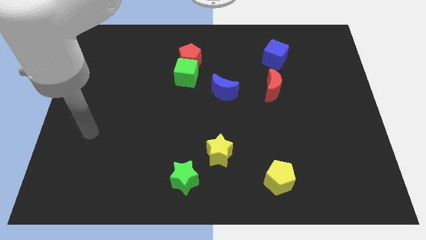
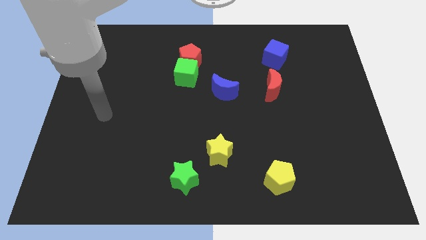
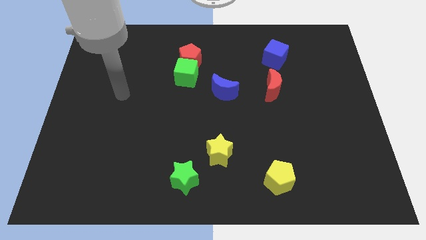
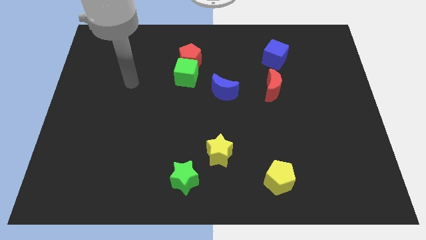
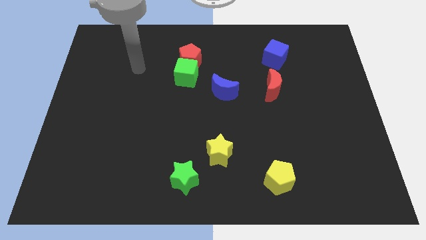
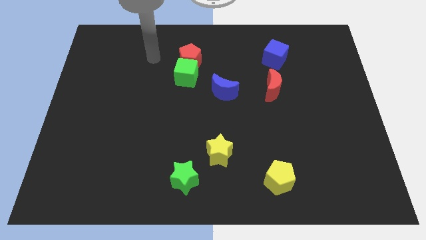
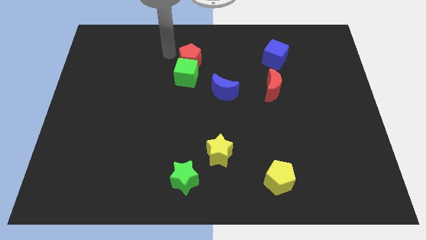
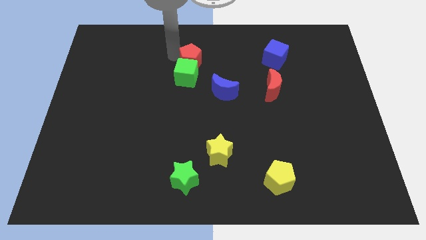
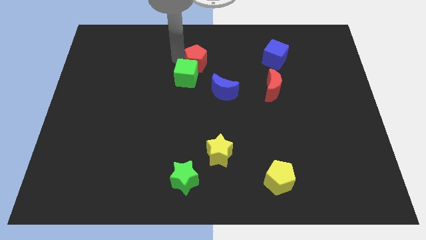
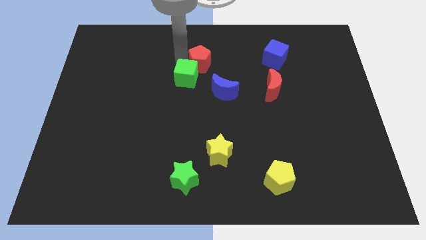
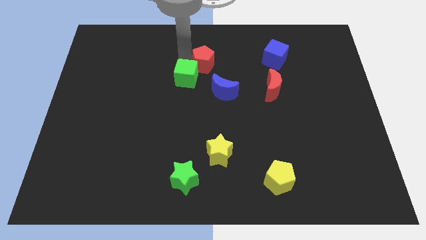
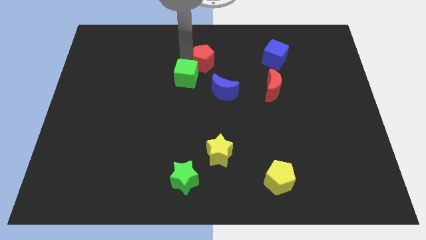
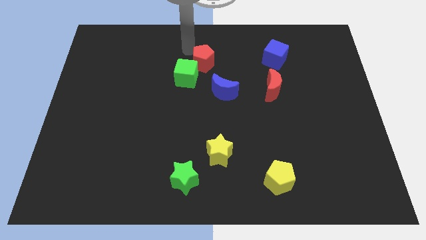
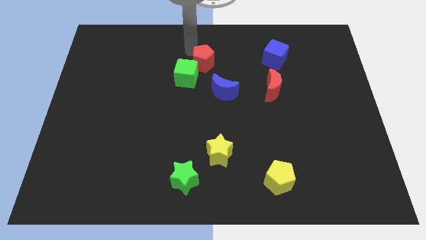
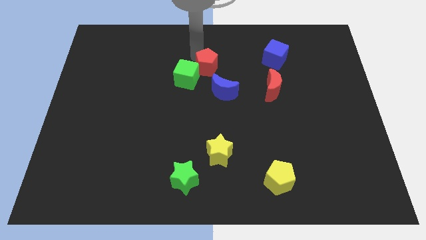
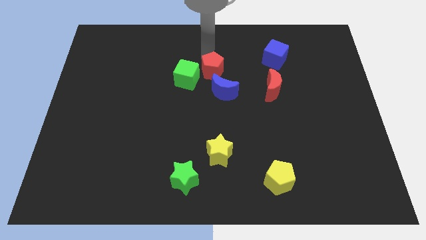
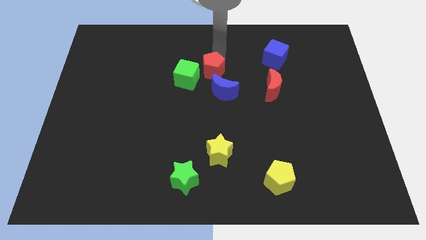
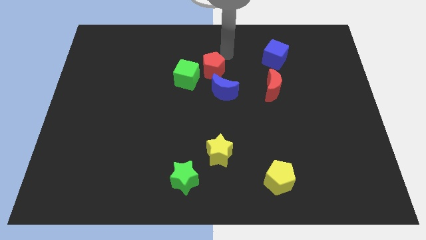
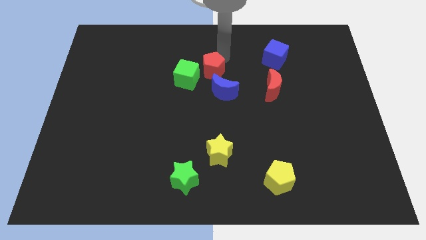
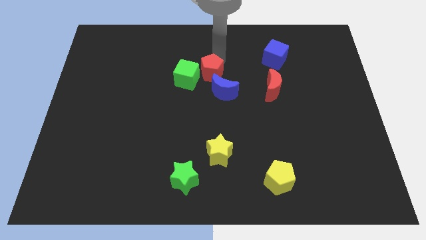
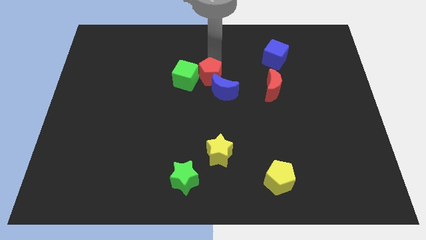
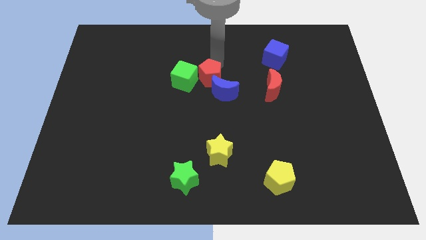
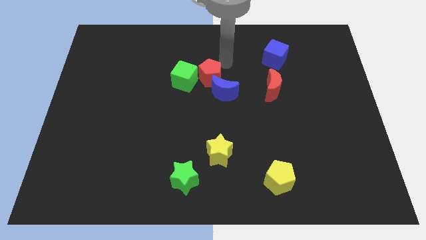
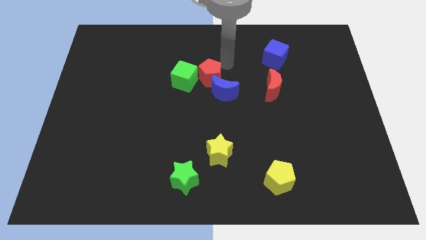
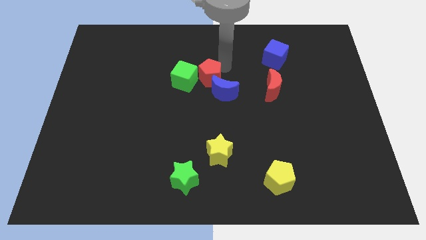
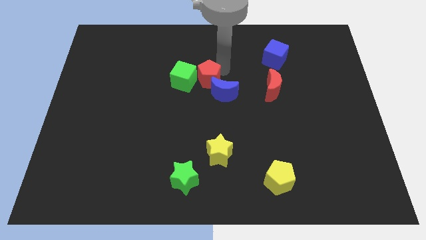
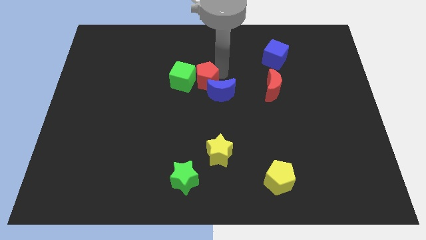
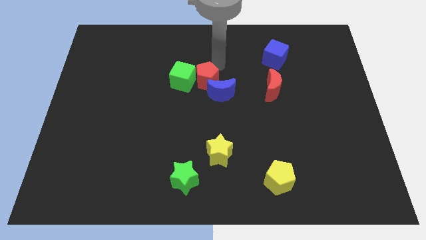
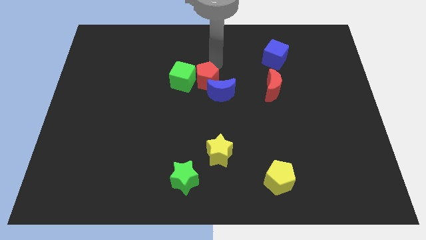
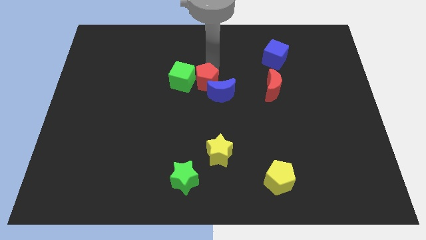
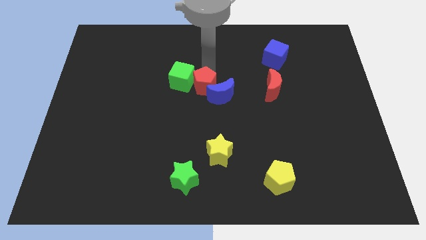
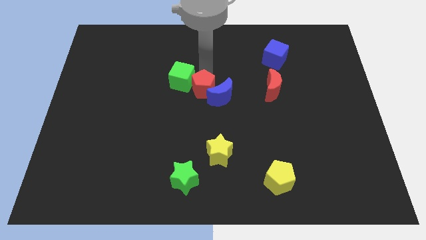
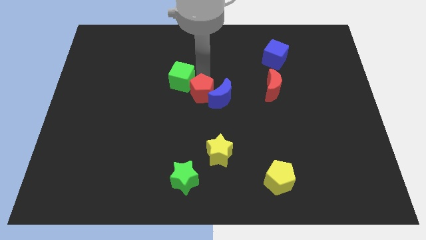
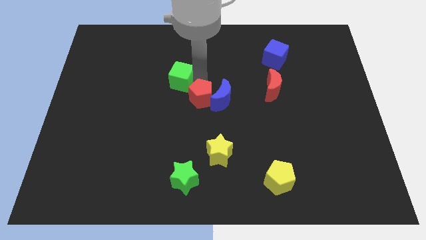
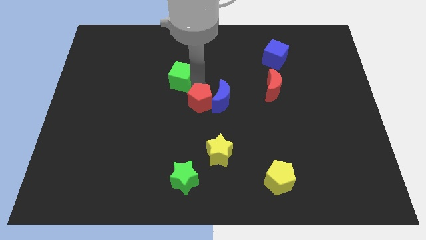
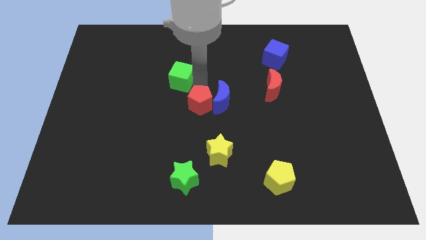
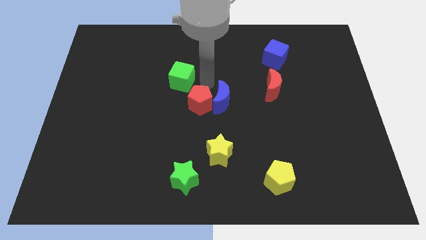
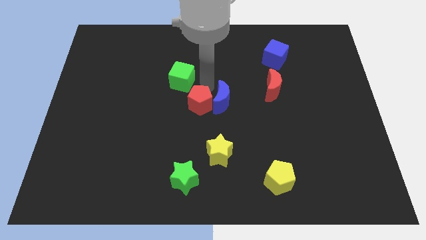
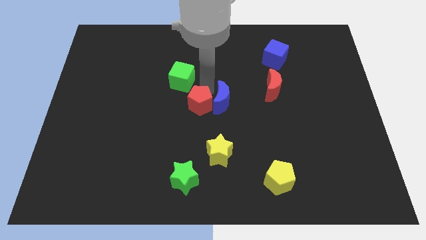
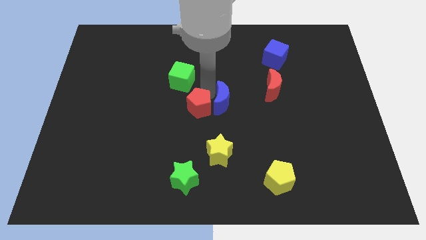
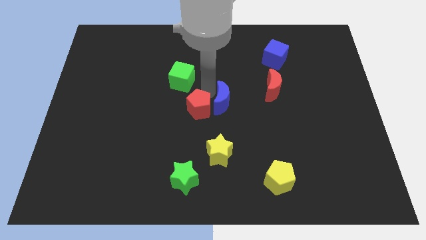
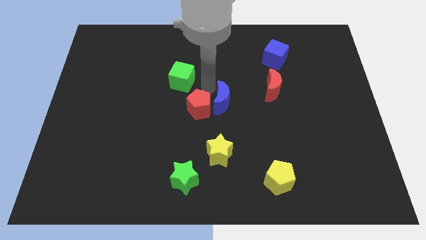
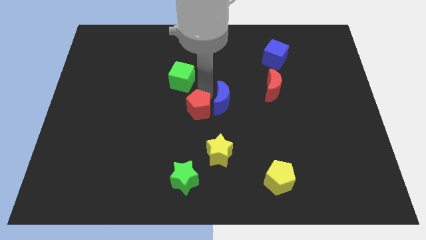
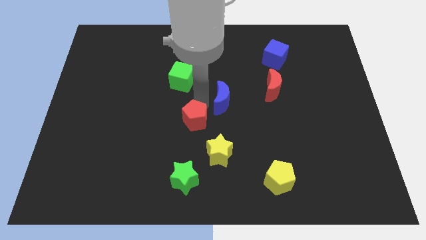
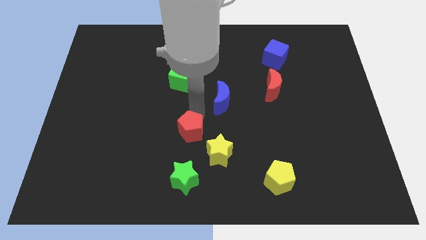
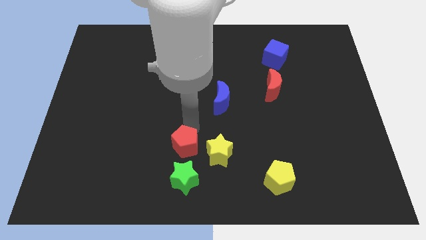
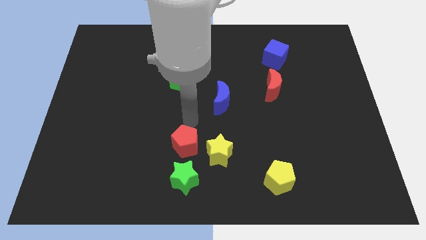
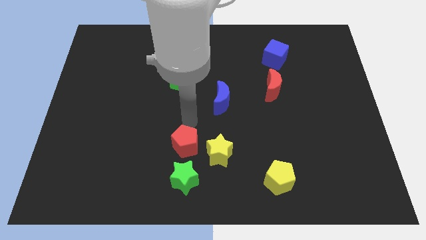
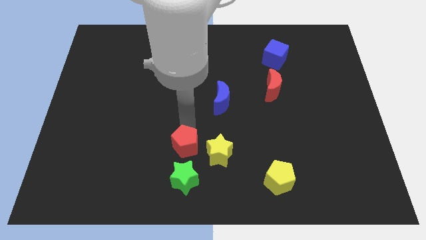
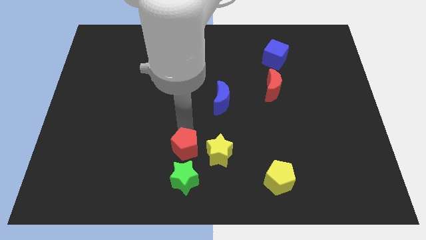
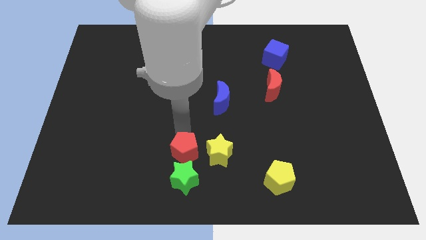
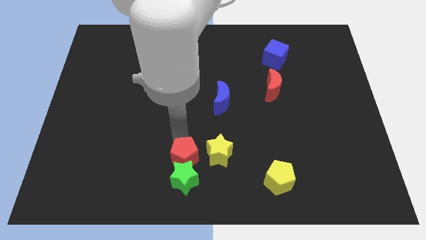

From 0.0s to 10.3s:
move the red pentagon towards the green star

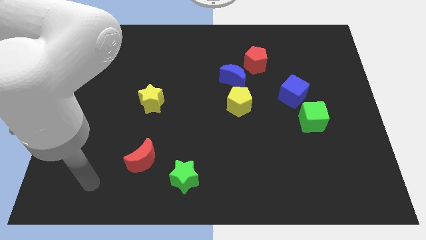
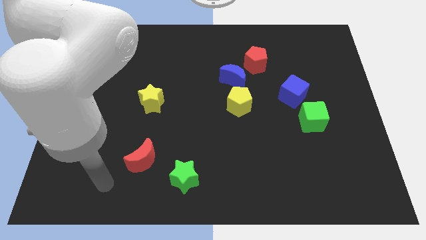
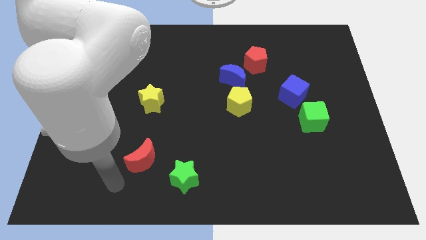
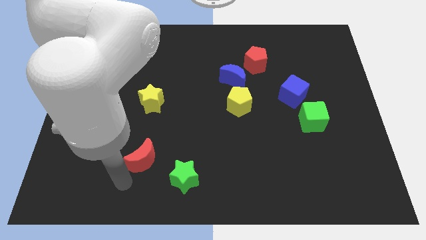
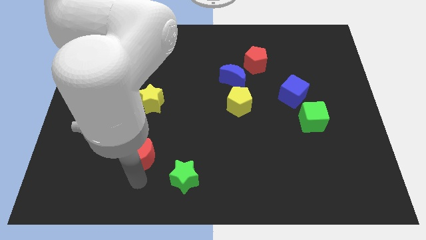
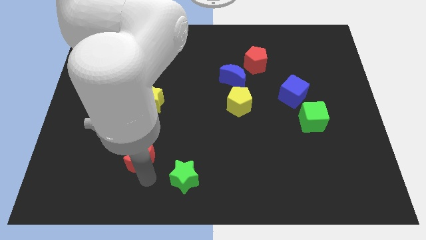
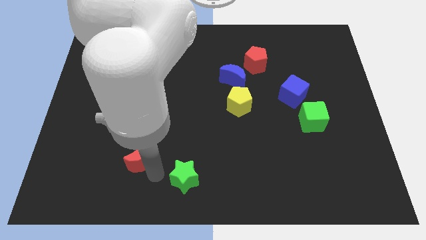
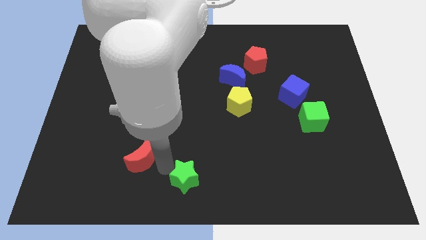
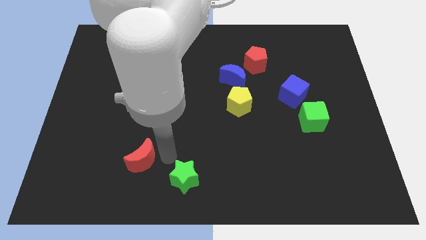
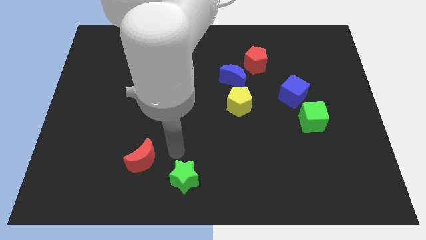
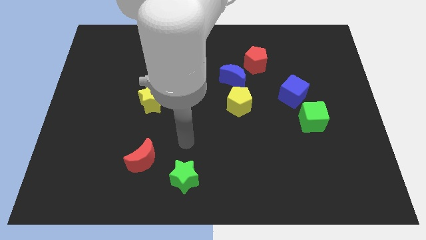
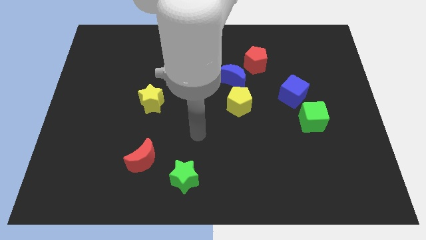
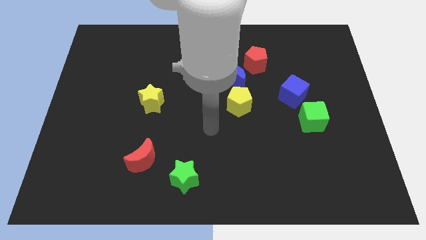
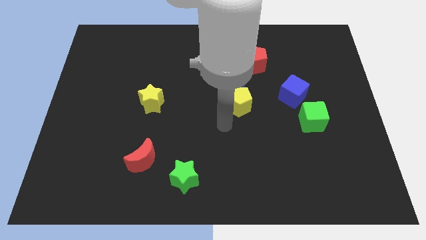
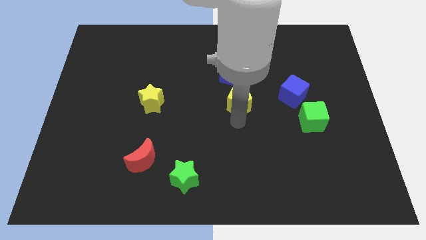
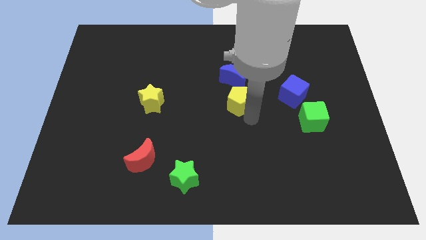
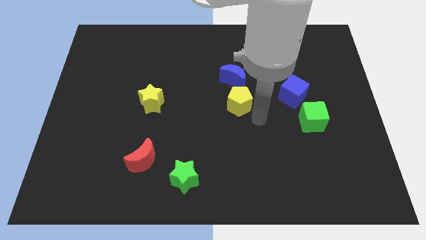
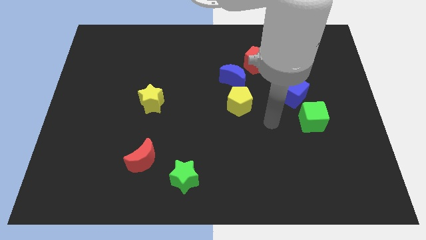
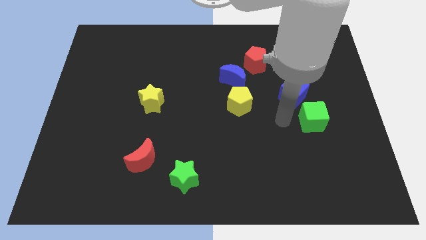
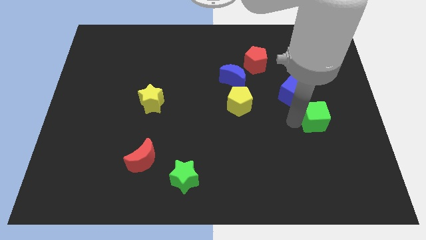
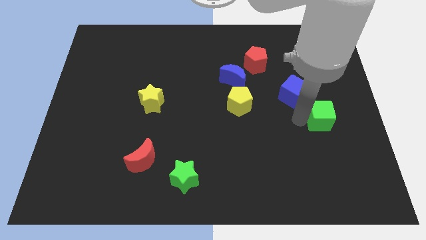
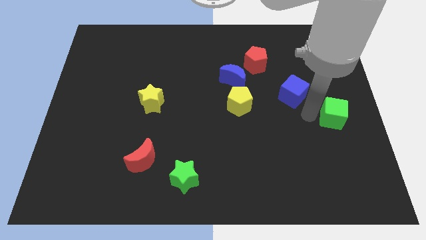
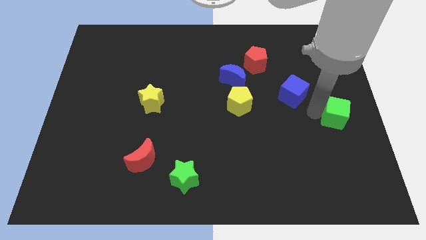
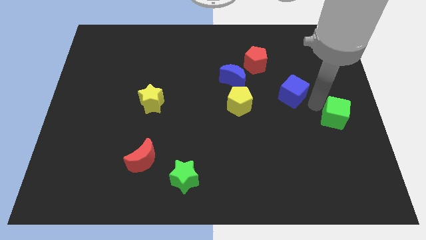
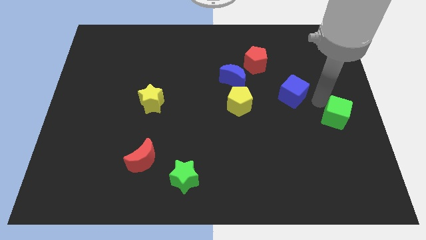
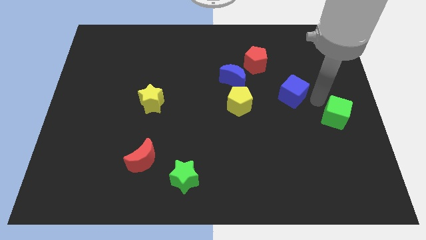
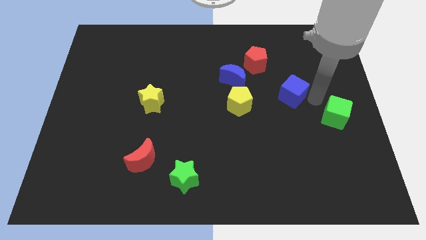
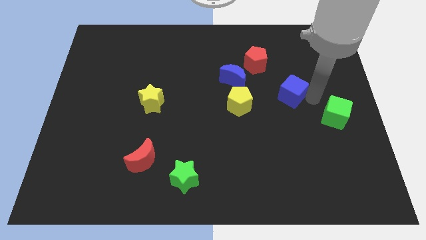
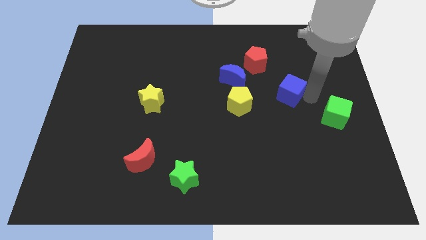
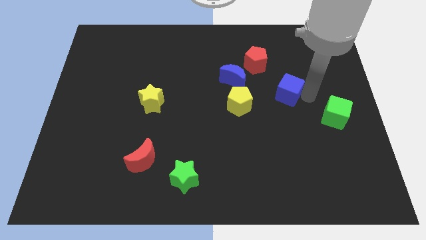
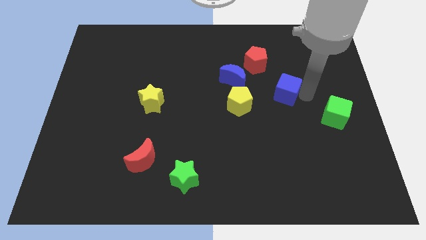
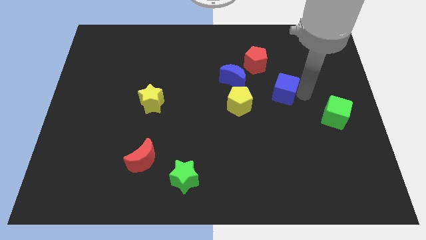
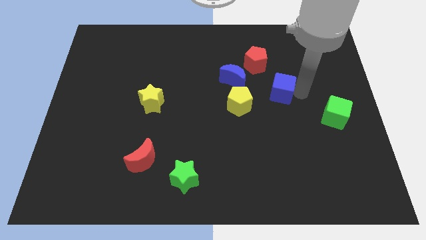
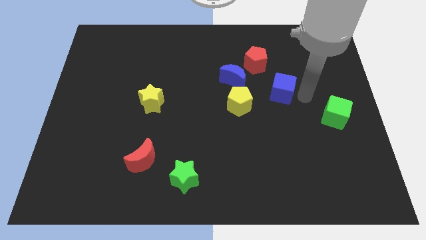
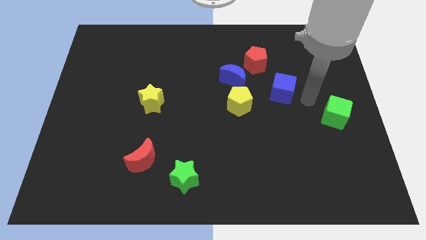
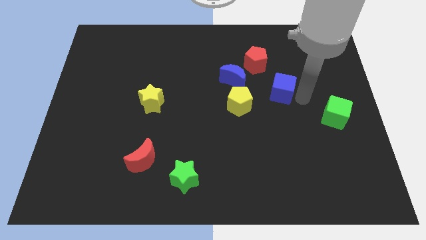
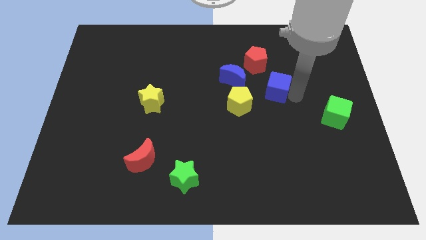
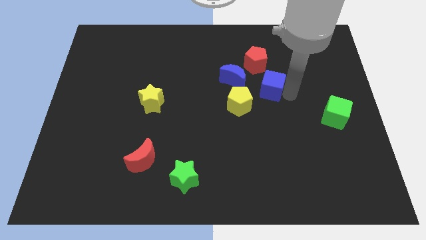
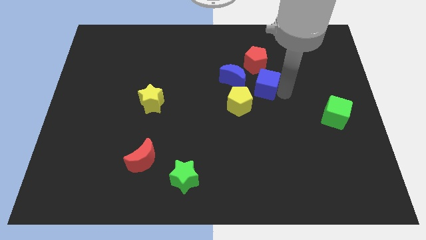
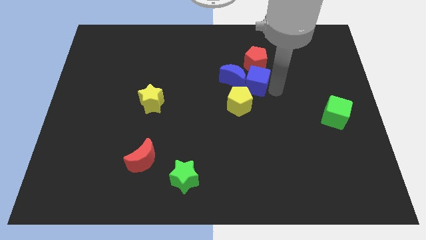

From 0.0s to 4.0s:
move the blue cube close to the blue moon
